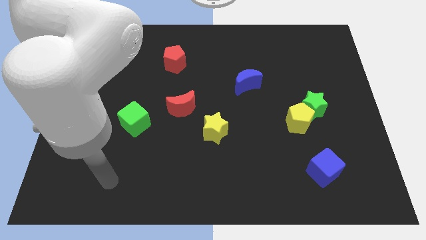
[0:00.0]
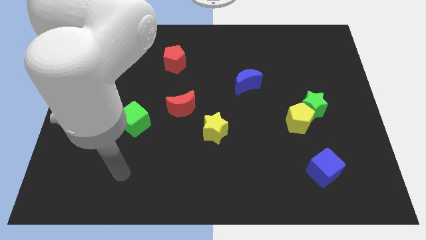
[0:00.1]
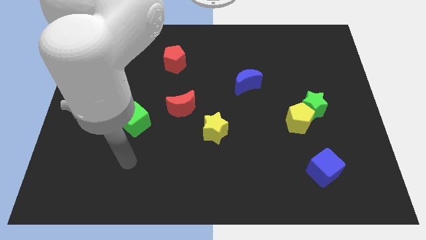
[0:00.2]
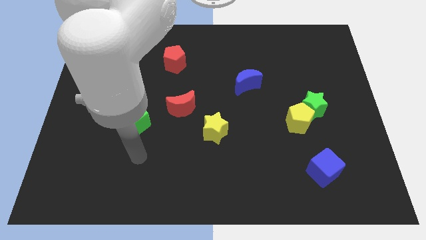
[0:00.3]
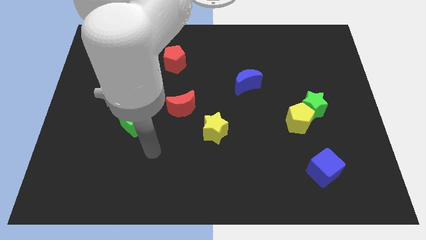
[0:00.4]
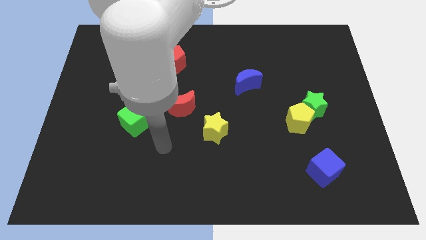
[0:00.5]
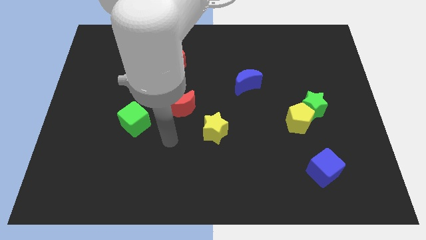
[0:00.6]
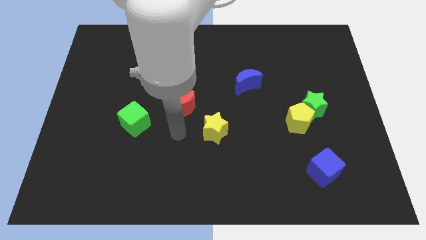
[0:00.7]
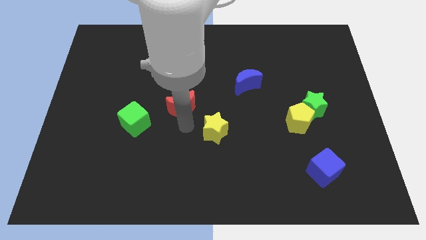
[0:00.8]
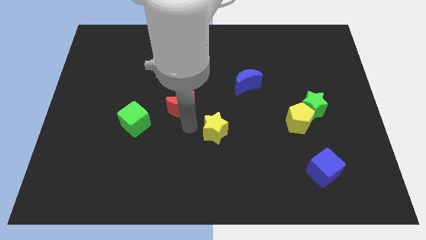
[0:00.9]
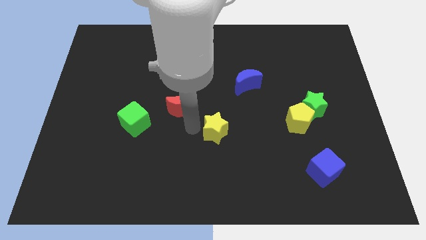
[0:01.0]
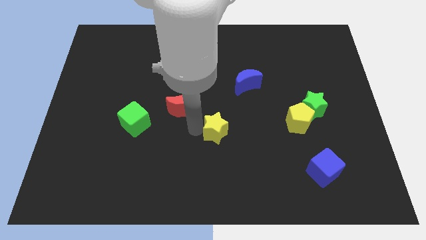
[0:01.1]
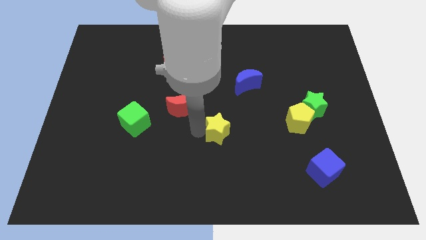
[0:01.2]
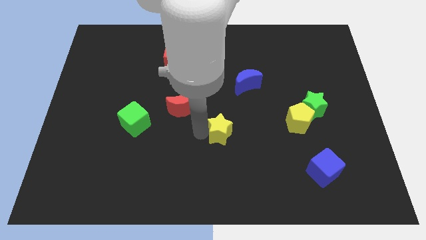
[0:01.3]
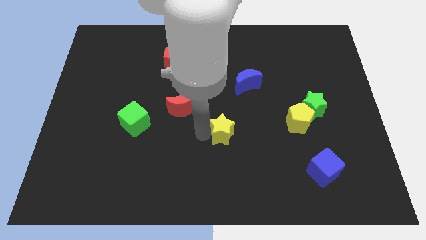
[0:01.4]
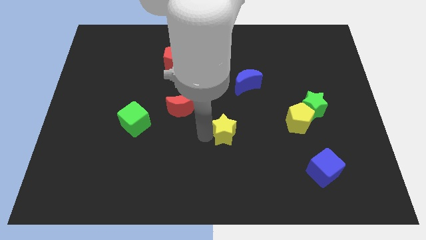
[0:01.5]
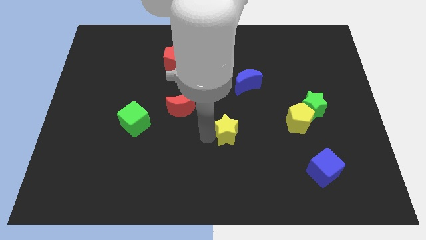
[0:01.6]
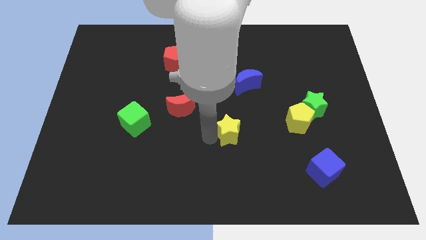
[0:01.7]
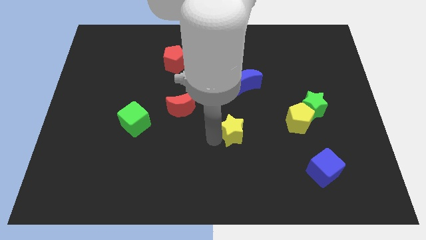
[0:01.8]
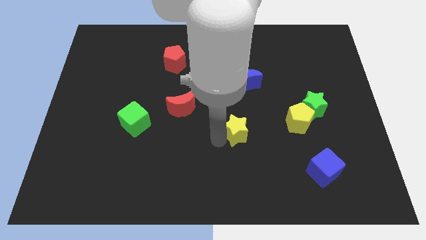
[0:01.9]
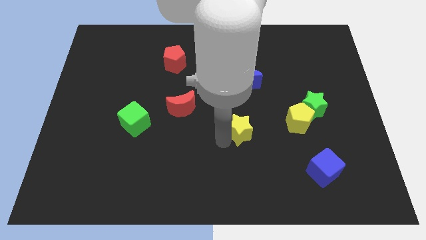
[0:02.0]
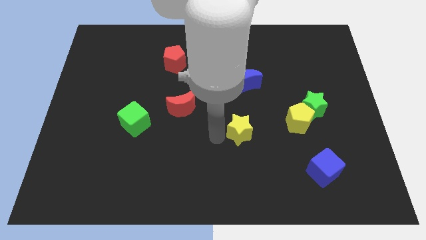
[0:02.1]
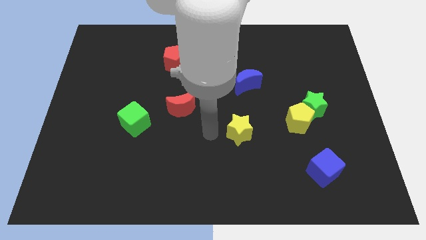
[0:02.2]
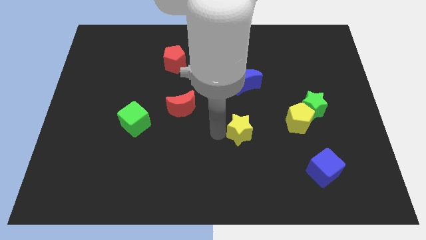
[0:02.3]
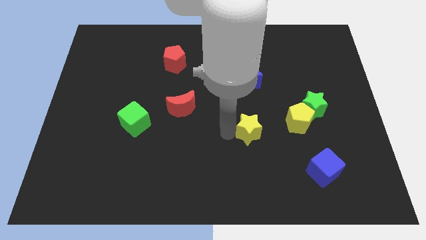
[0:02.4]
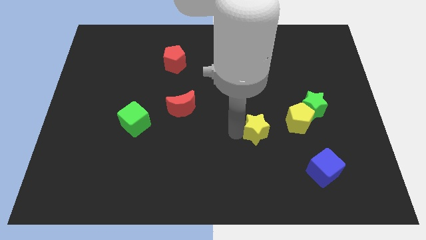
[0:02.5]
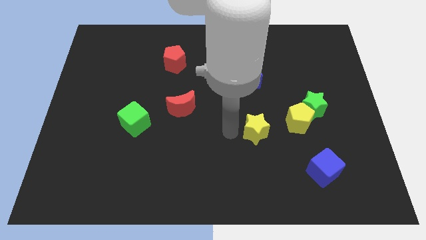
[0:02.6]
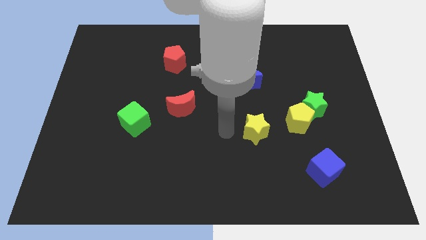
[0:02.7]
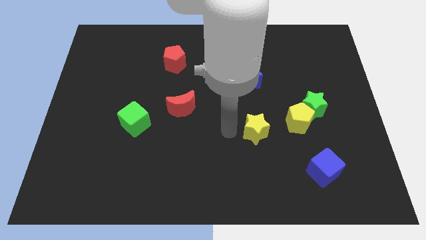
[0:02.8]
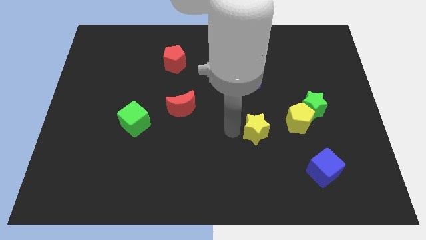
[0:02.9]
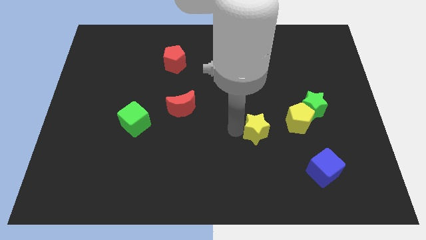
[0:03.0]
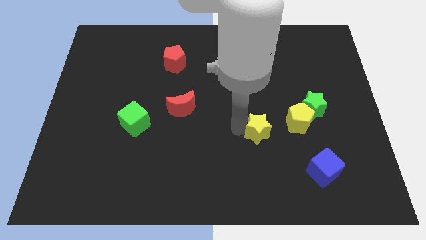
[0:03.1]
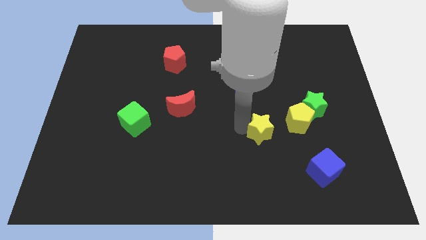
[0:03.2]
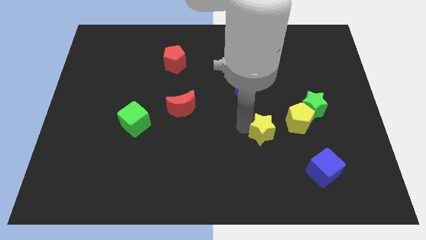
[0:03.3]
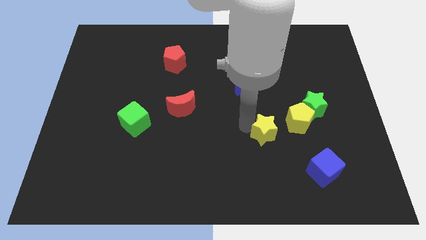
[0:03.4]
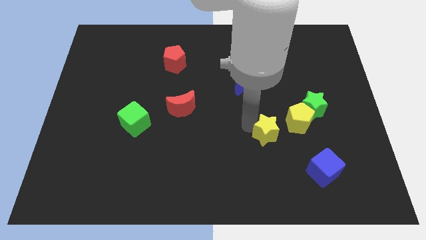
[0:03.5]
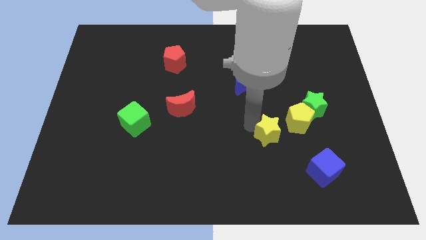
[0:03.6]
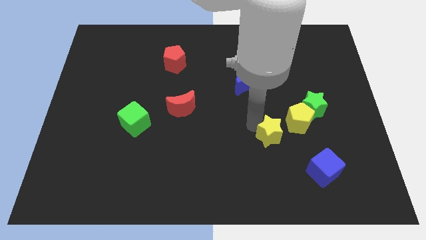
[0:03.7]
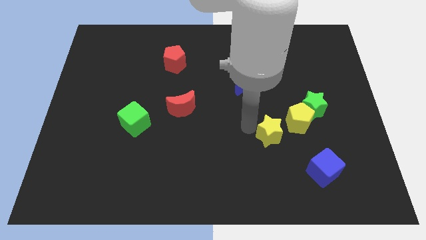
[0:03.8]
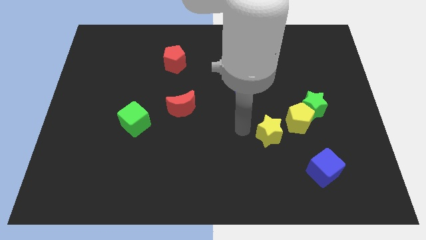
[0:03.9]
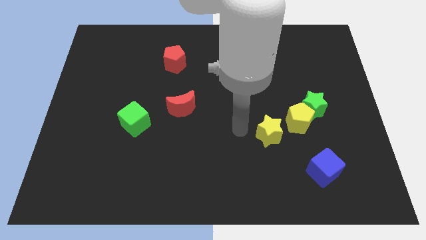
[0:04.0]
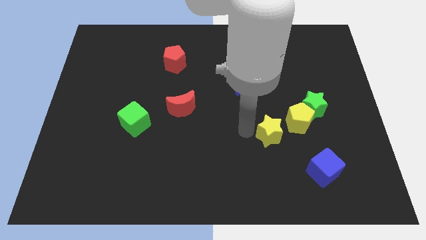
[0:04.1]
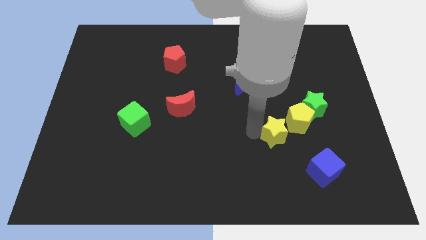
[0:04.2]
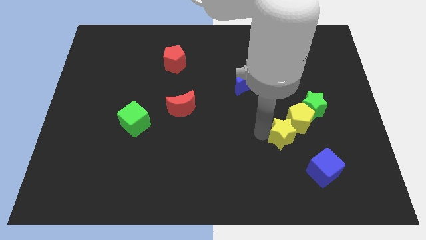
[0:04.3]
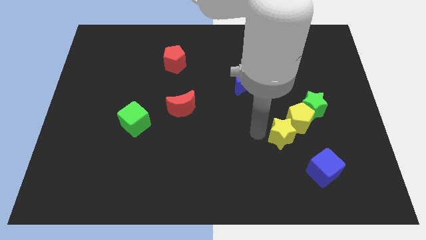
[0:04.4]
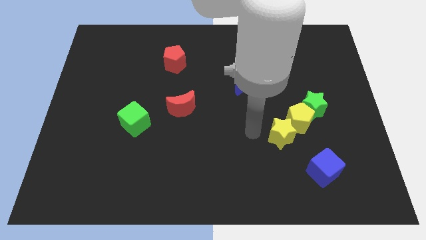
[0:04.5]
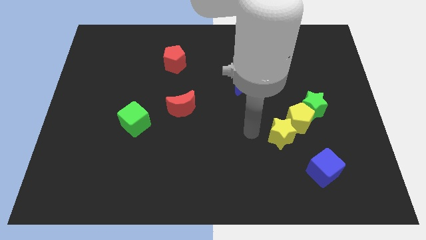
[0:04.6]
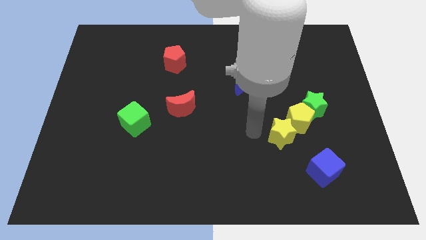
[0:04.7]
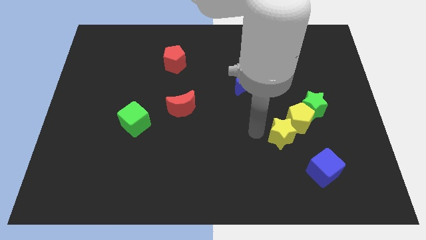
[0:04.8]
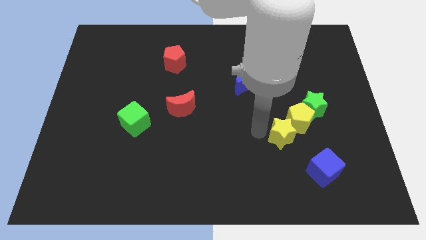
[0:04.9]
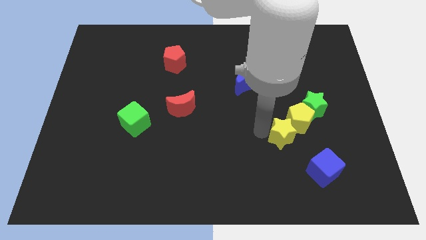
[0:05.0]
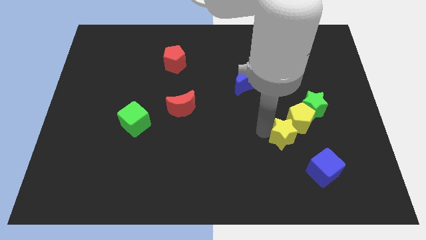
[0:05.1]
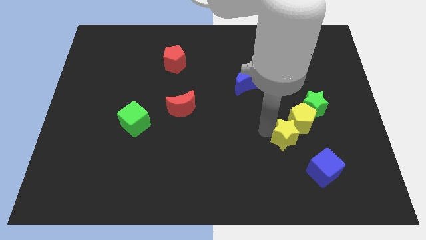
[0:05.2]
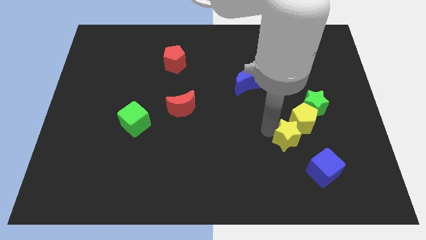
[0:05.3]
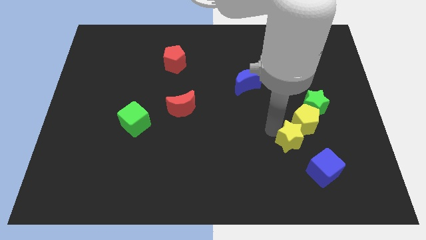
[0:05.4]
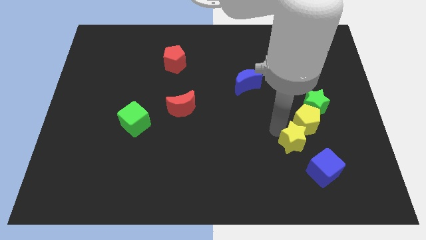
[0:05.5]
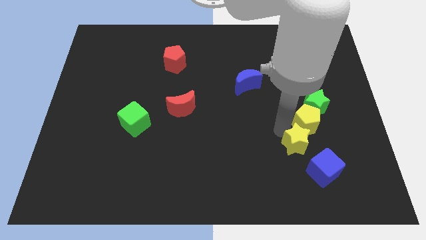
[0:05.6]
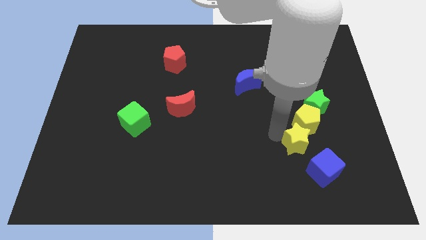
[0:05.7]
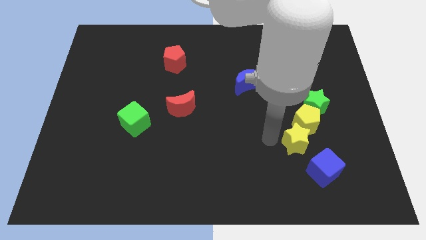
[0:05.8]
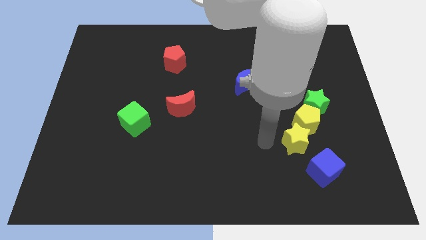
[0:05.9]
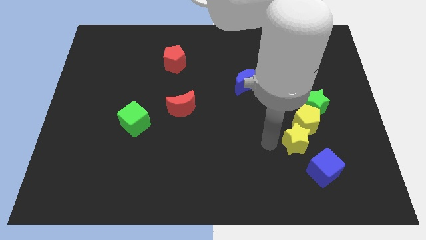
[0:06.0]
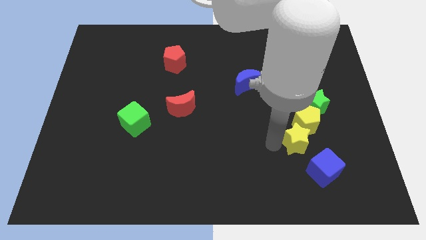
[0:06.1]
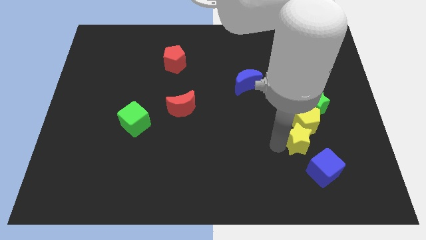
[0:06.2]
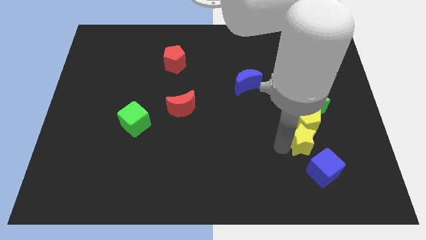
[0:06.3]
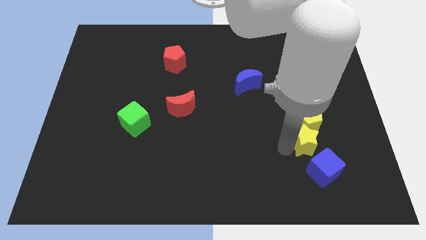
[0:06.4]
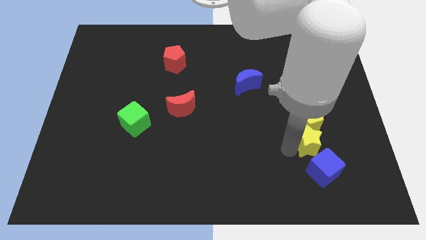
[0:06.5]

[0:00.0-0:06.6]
push the yellow star to the bottom right side of the yellow pentagon

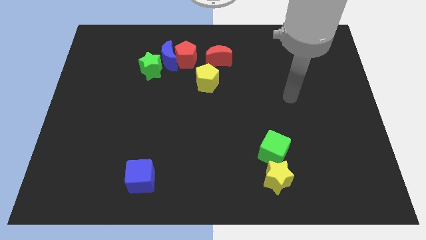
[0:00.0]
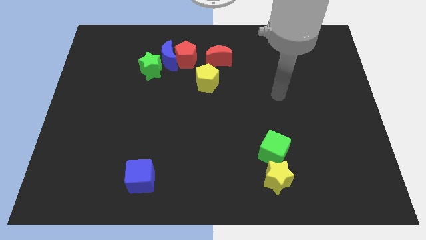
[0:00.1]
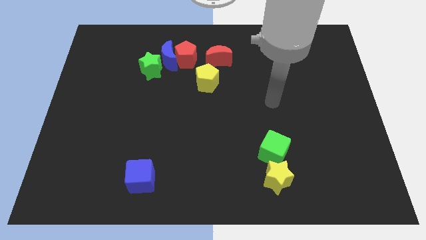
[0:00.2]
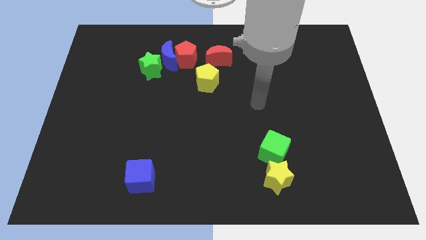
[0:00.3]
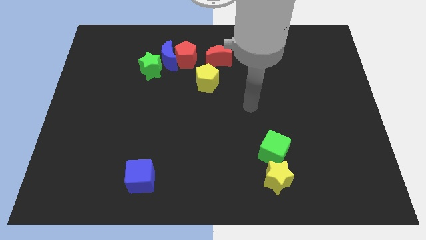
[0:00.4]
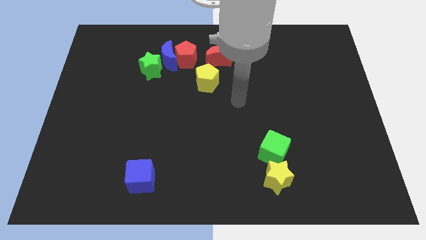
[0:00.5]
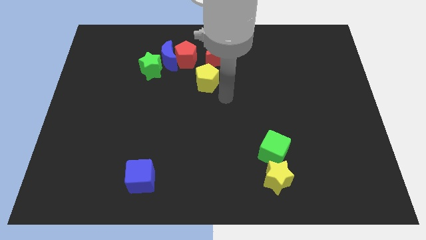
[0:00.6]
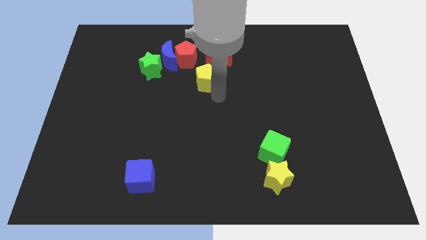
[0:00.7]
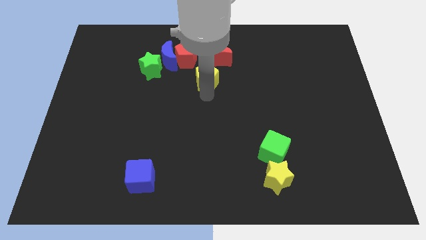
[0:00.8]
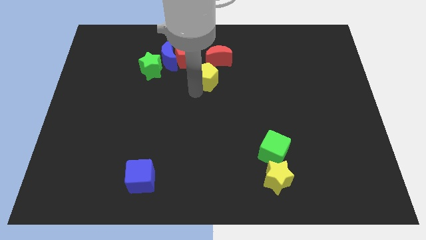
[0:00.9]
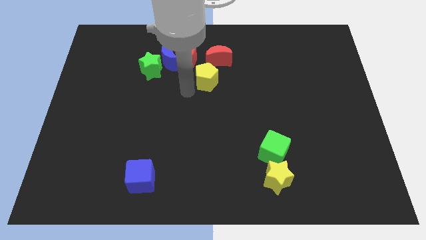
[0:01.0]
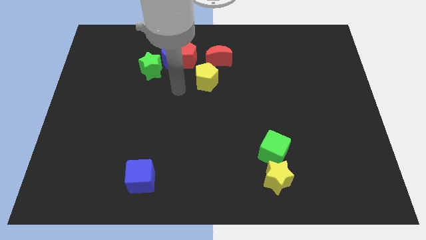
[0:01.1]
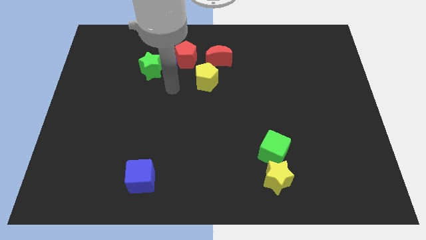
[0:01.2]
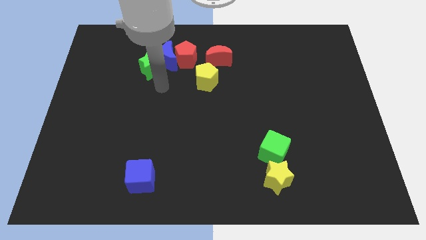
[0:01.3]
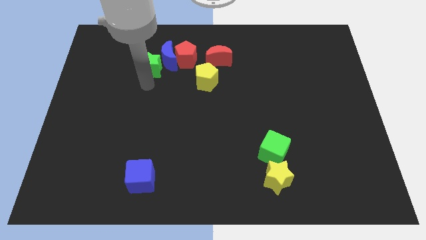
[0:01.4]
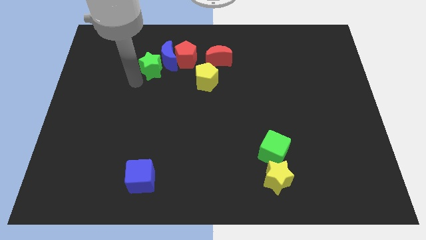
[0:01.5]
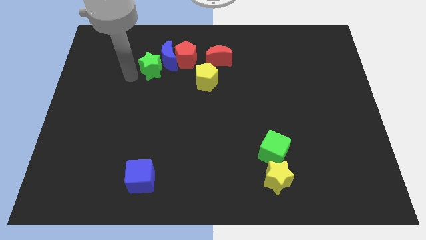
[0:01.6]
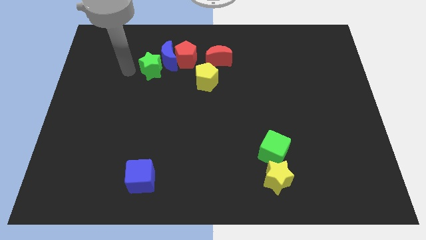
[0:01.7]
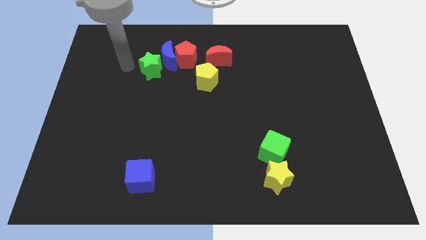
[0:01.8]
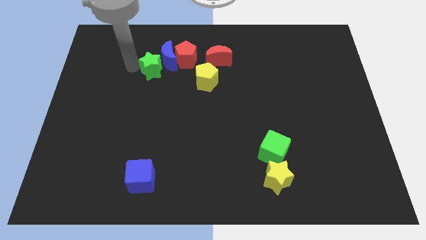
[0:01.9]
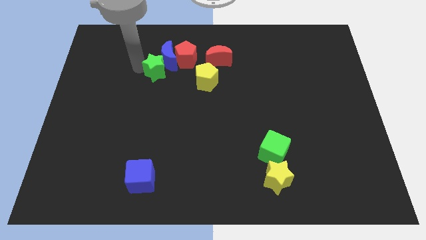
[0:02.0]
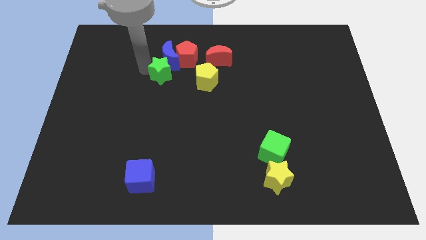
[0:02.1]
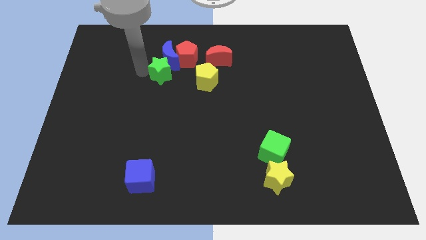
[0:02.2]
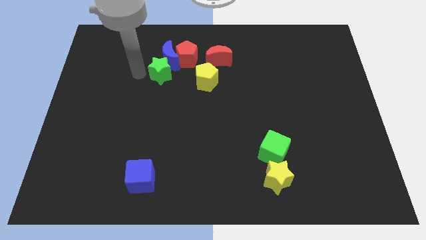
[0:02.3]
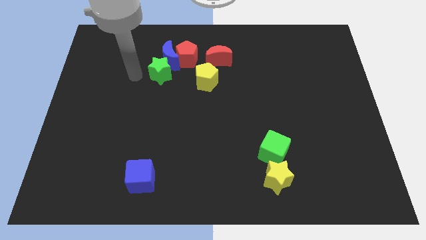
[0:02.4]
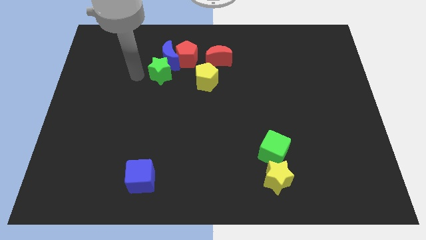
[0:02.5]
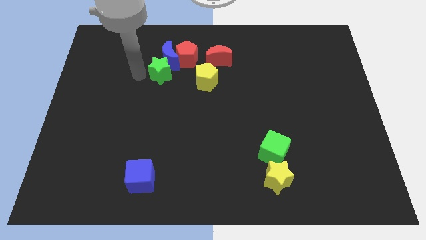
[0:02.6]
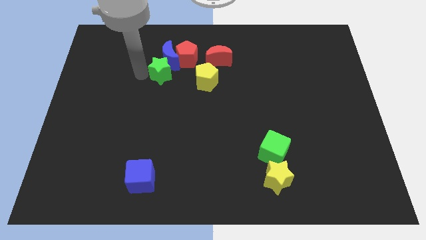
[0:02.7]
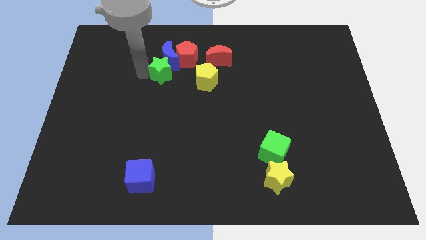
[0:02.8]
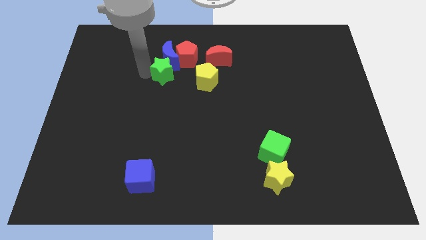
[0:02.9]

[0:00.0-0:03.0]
push the green star to the bottom right side of the blue moon
